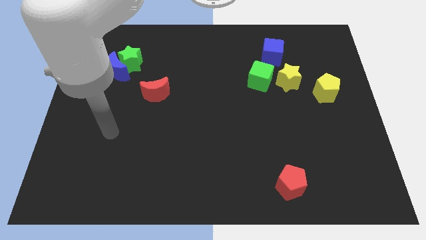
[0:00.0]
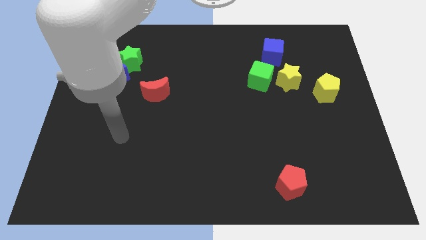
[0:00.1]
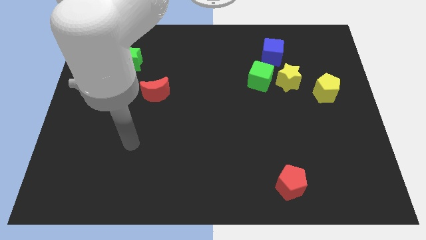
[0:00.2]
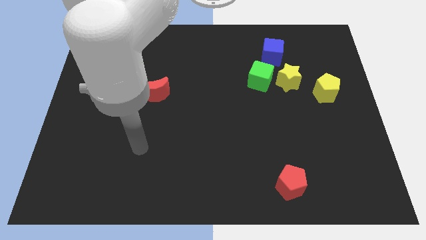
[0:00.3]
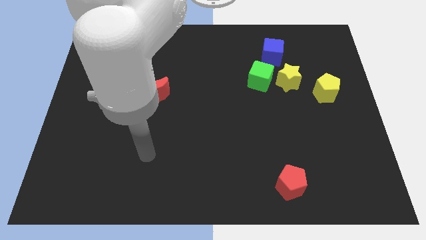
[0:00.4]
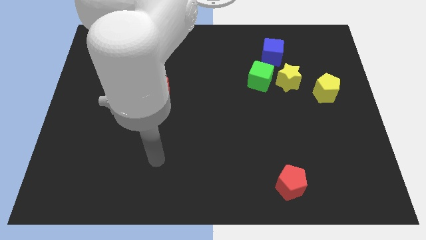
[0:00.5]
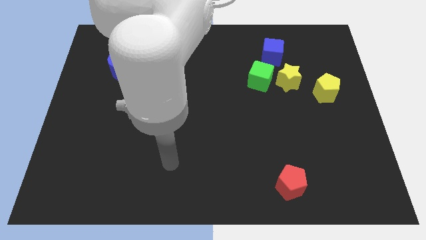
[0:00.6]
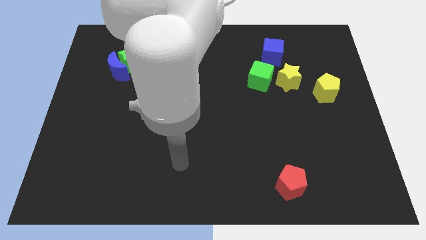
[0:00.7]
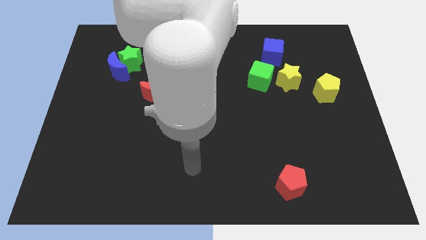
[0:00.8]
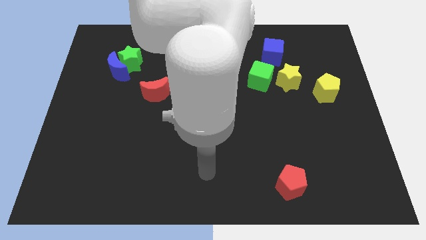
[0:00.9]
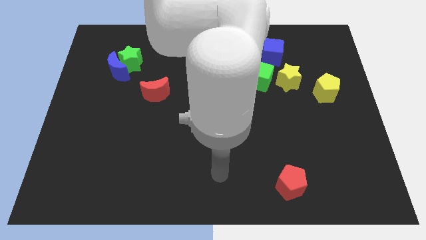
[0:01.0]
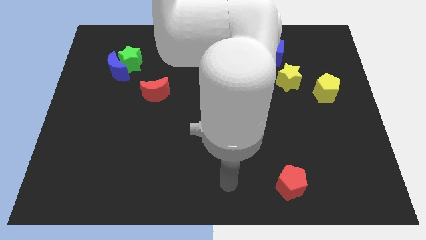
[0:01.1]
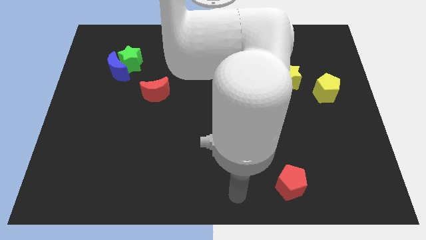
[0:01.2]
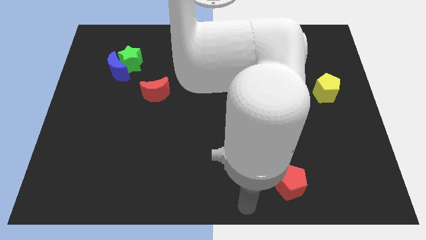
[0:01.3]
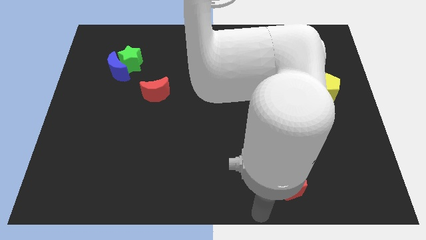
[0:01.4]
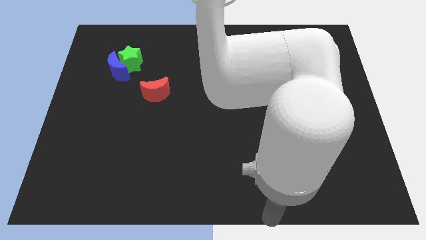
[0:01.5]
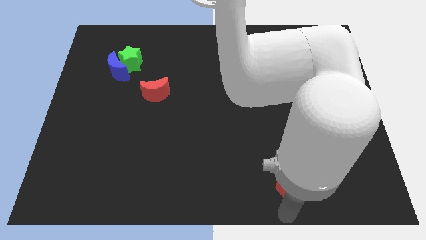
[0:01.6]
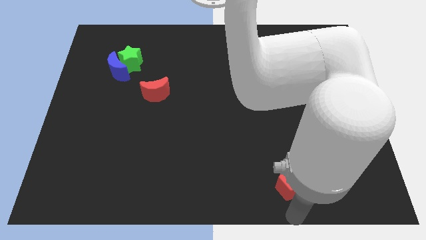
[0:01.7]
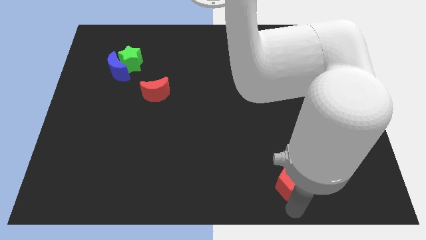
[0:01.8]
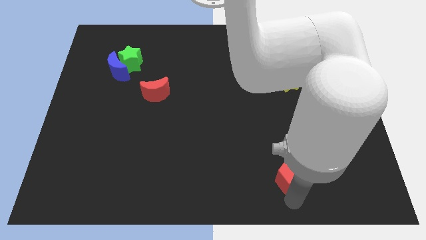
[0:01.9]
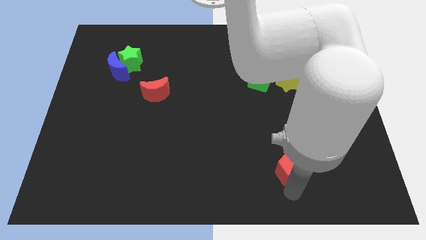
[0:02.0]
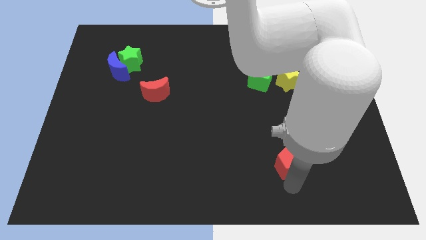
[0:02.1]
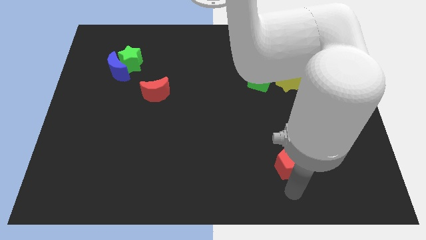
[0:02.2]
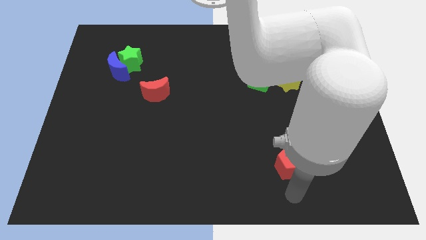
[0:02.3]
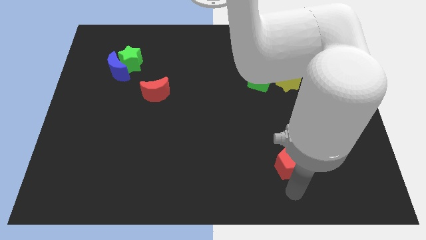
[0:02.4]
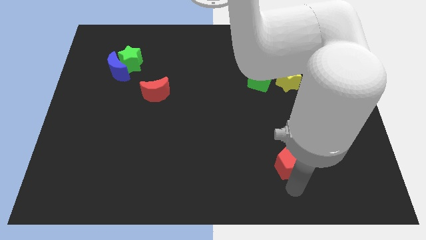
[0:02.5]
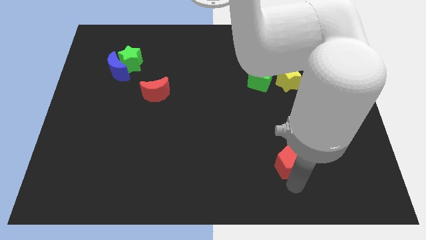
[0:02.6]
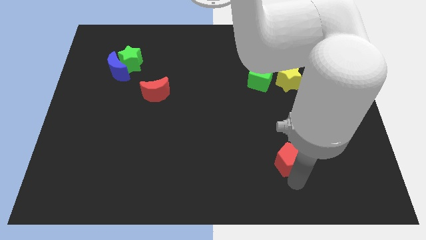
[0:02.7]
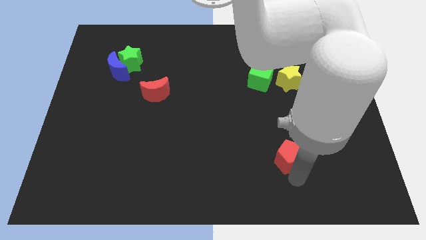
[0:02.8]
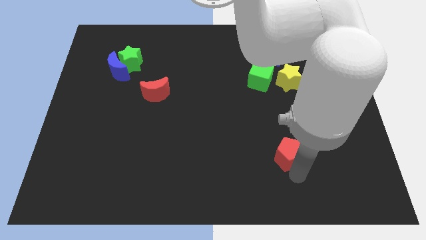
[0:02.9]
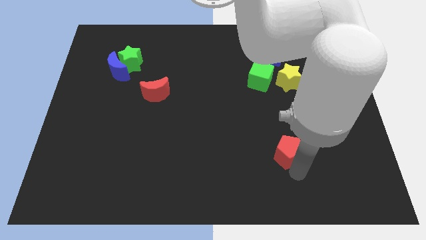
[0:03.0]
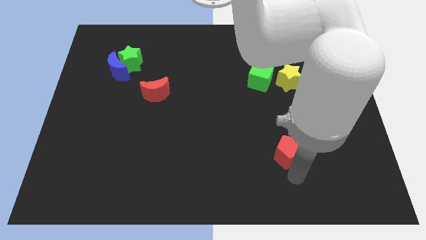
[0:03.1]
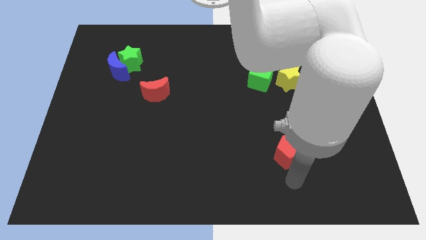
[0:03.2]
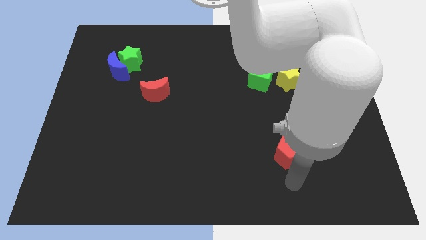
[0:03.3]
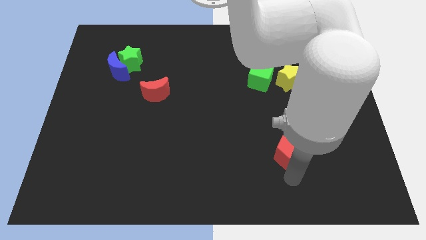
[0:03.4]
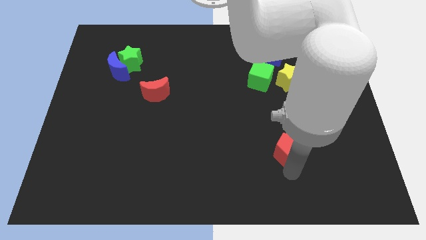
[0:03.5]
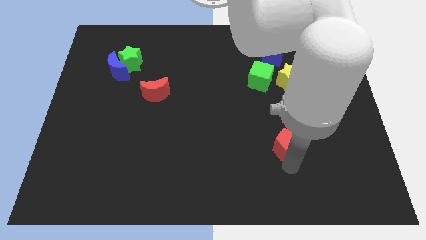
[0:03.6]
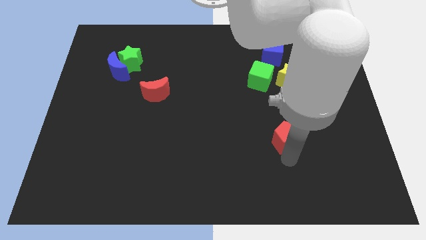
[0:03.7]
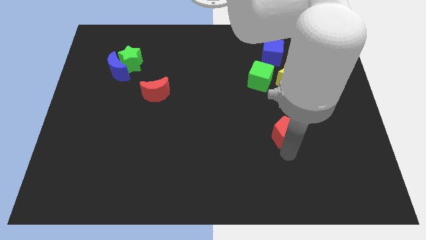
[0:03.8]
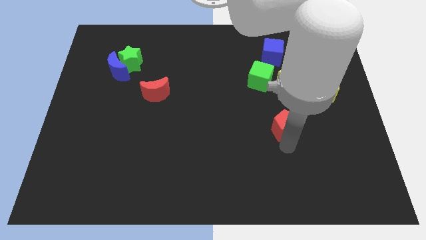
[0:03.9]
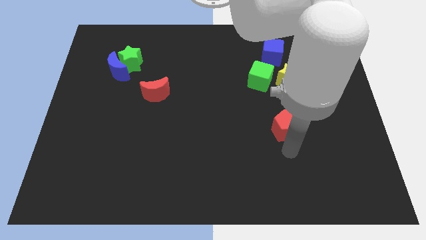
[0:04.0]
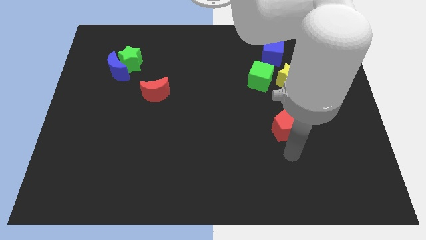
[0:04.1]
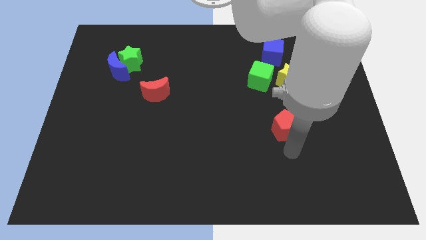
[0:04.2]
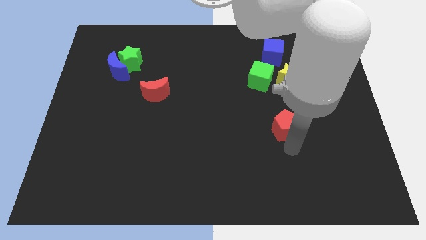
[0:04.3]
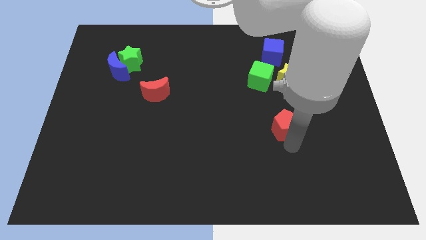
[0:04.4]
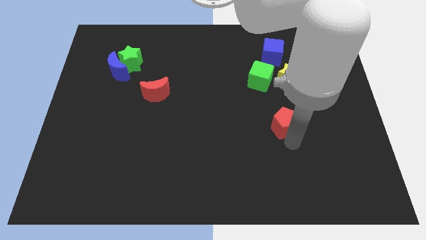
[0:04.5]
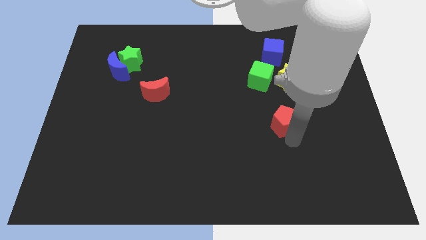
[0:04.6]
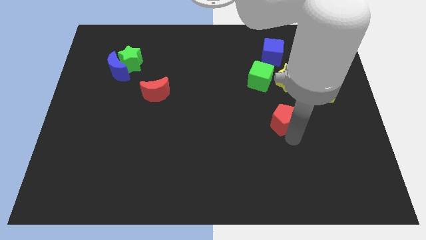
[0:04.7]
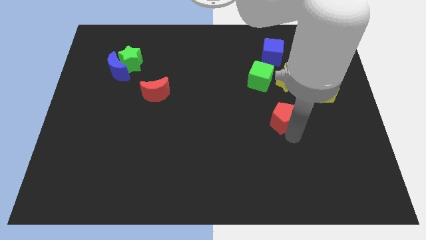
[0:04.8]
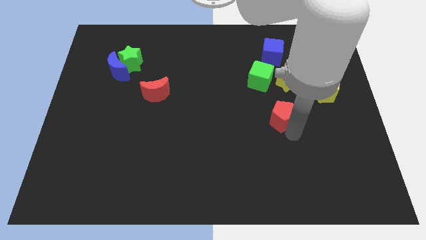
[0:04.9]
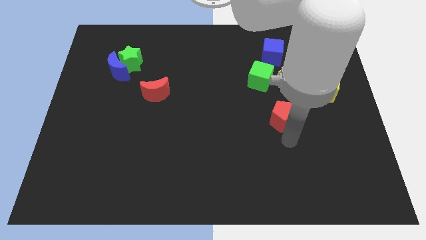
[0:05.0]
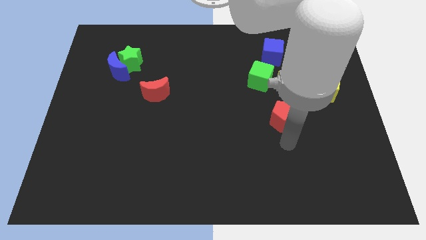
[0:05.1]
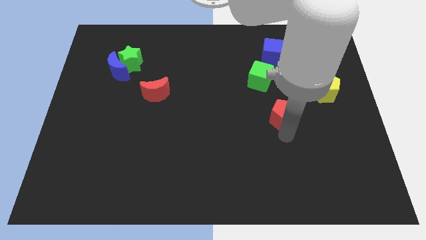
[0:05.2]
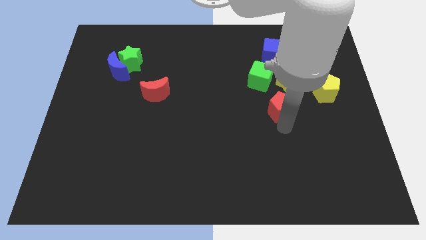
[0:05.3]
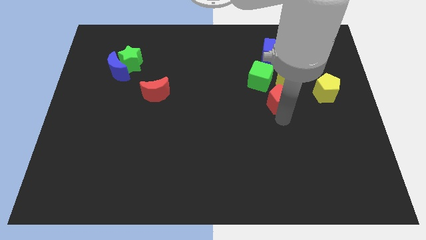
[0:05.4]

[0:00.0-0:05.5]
push the red pentagon below the blue cube
